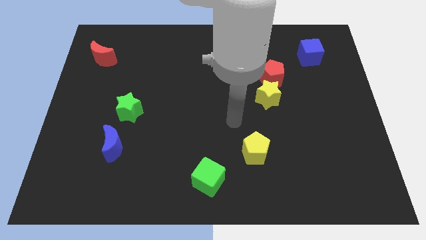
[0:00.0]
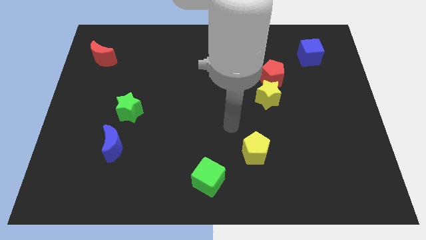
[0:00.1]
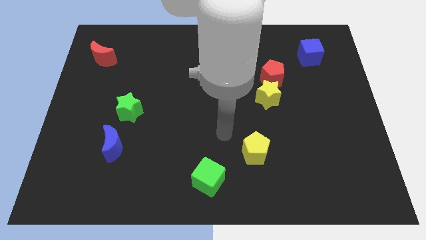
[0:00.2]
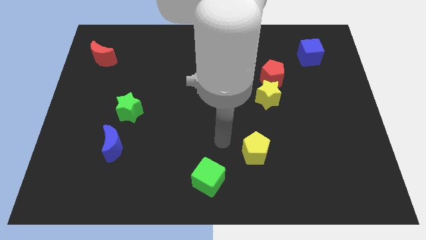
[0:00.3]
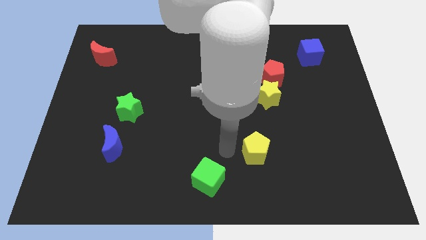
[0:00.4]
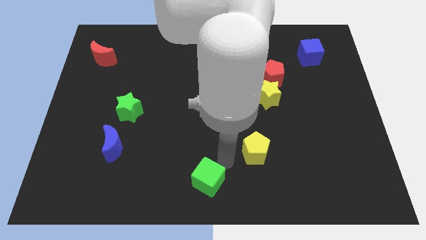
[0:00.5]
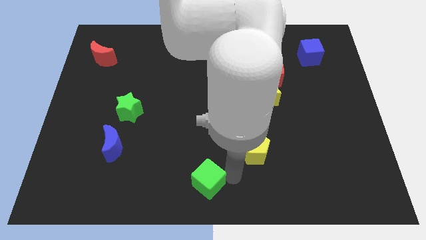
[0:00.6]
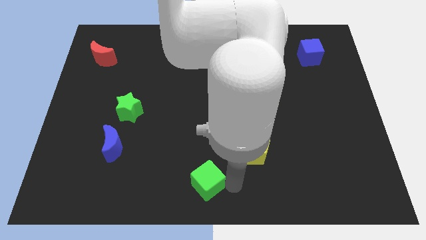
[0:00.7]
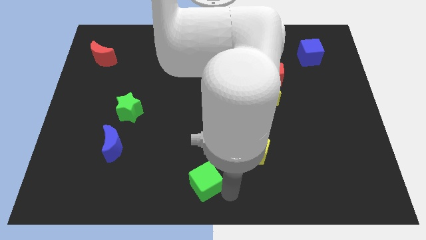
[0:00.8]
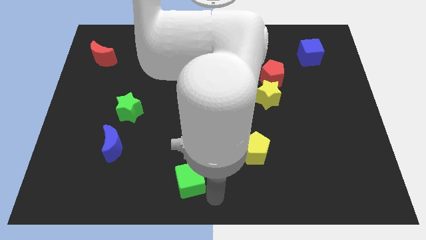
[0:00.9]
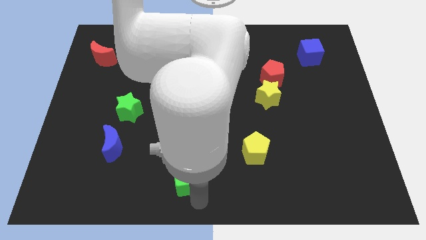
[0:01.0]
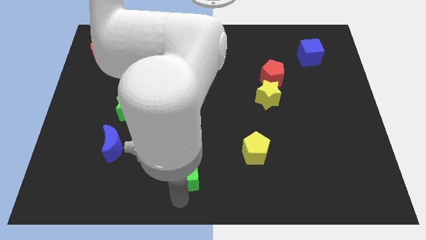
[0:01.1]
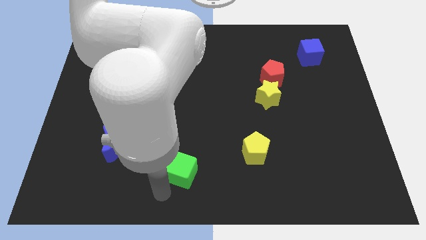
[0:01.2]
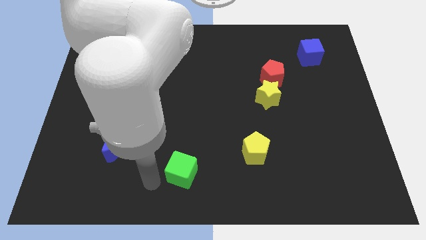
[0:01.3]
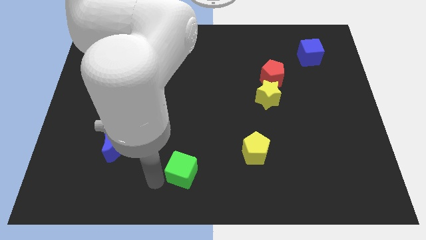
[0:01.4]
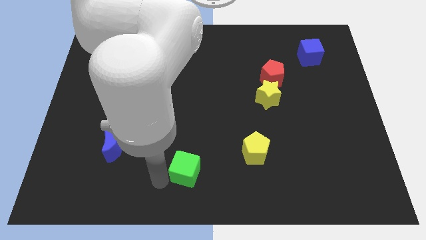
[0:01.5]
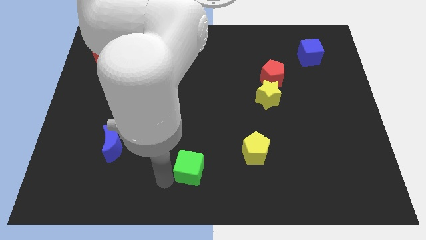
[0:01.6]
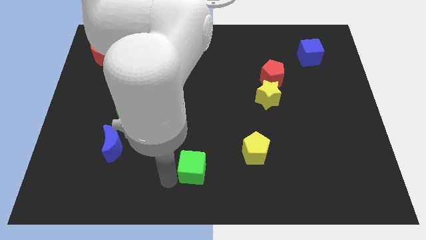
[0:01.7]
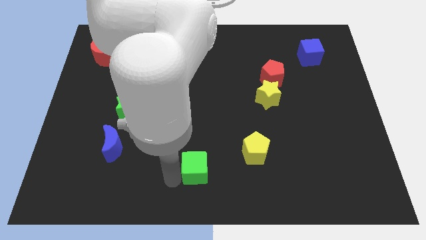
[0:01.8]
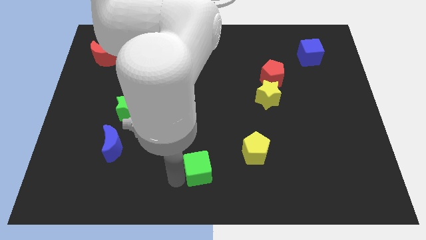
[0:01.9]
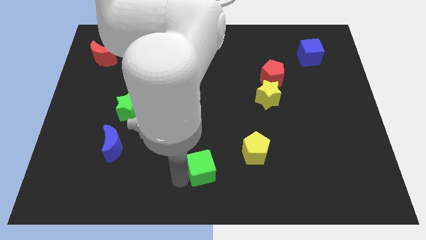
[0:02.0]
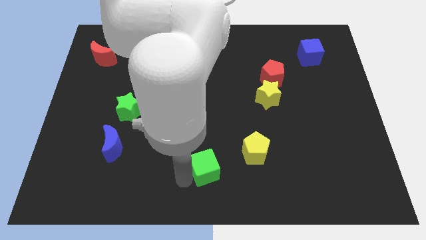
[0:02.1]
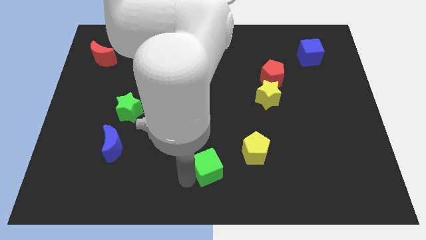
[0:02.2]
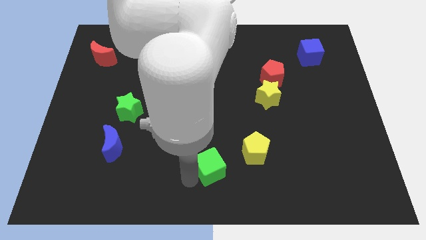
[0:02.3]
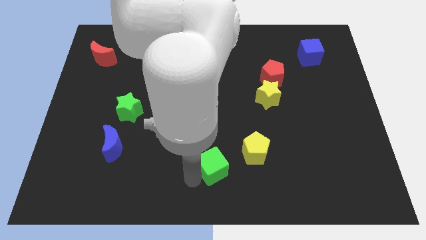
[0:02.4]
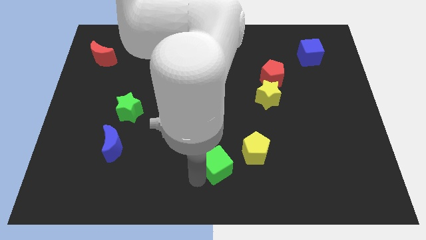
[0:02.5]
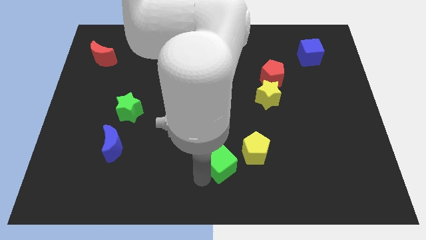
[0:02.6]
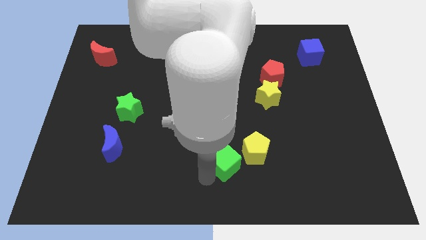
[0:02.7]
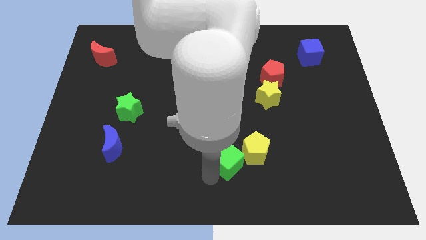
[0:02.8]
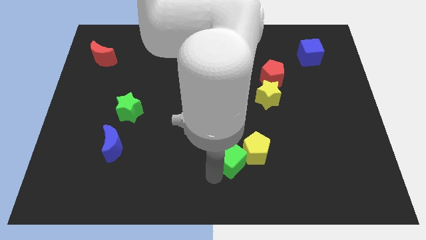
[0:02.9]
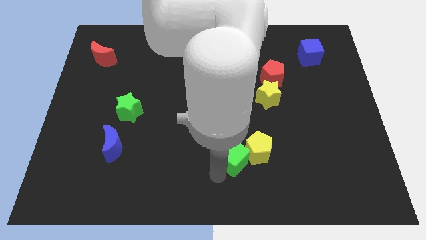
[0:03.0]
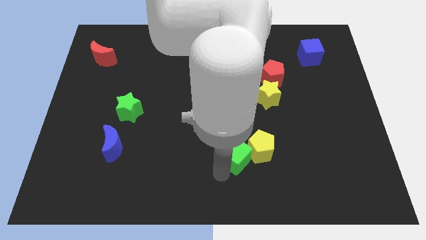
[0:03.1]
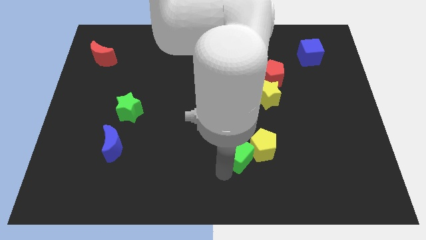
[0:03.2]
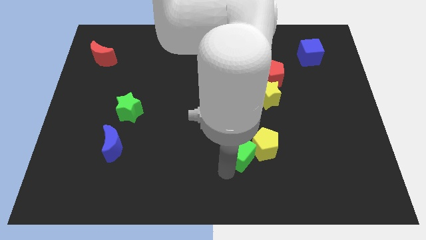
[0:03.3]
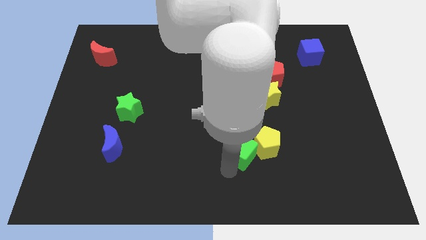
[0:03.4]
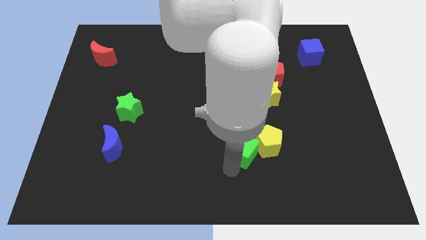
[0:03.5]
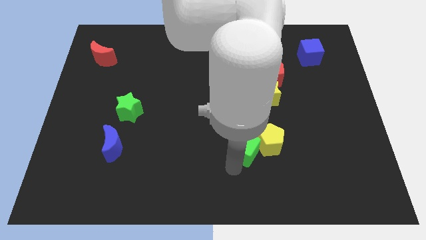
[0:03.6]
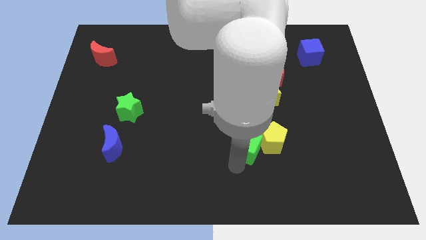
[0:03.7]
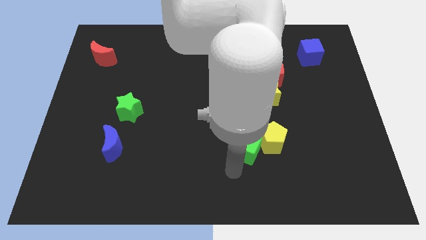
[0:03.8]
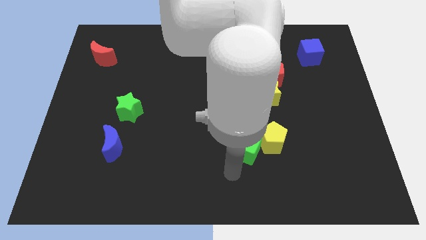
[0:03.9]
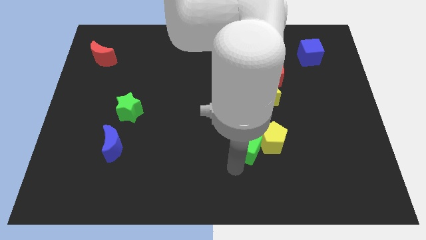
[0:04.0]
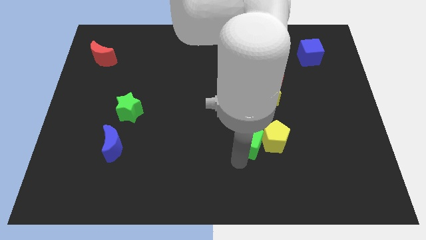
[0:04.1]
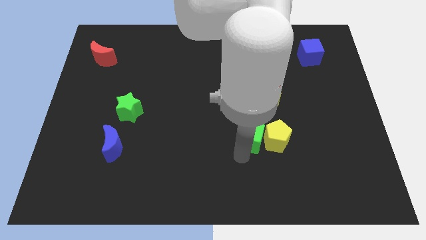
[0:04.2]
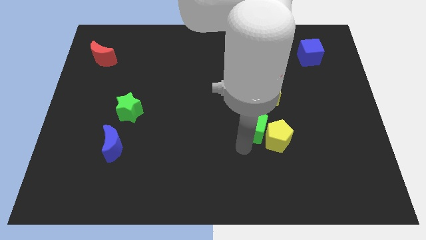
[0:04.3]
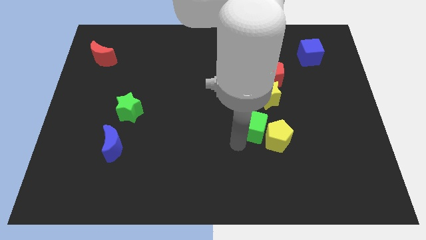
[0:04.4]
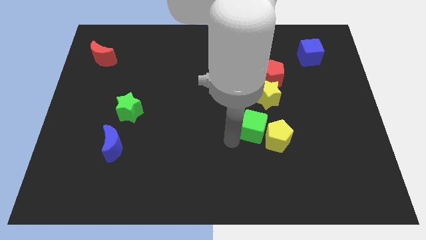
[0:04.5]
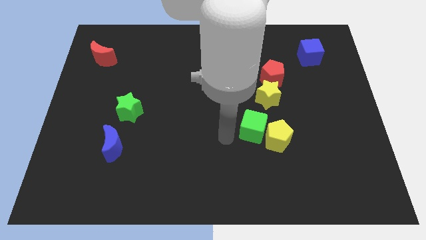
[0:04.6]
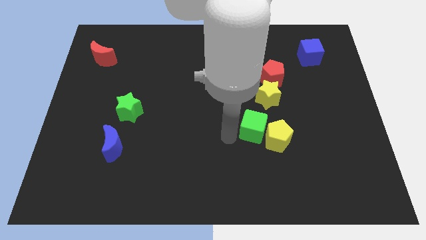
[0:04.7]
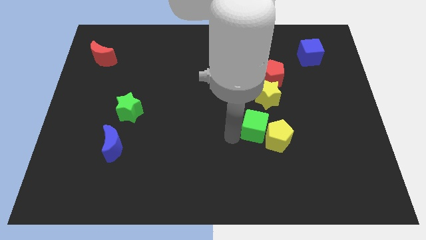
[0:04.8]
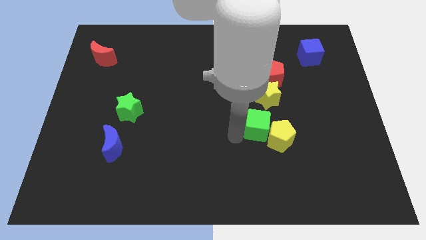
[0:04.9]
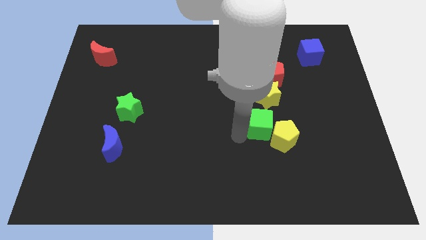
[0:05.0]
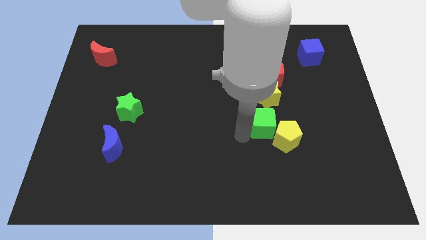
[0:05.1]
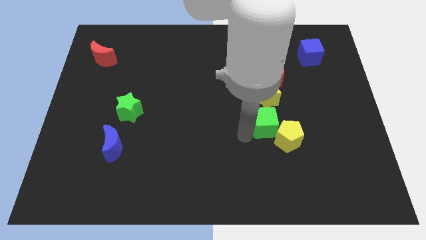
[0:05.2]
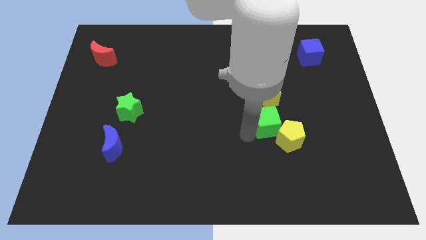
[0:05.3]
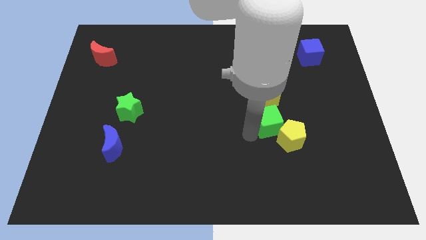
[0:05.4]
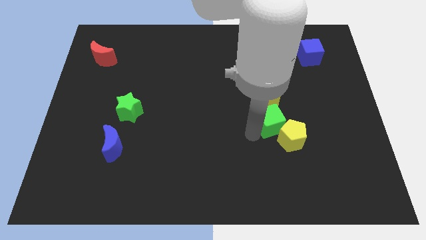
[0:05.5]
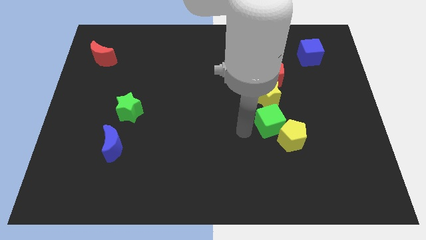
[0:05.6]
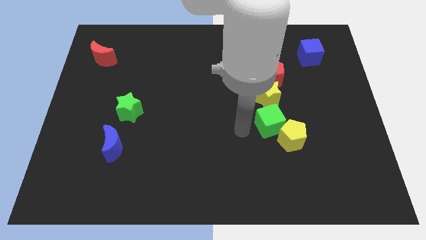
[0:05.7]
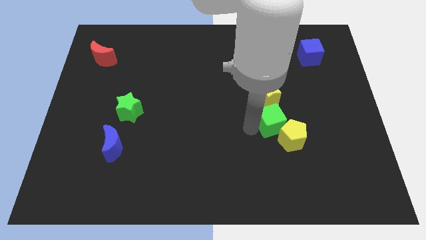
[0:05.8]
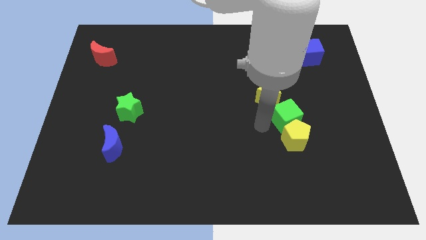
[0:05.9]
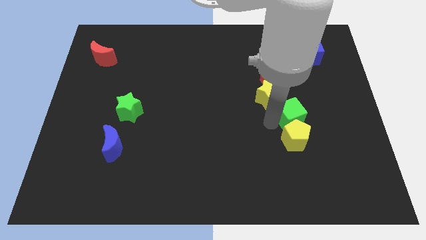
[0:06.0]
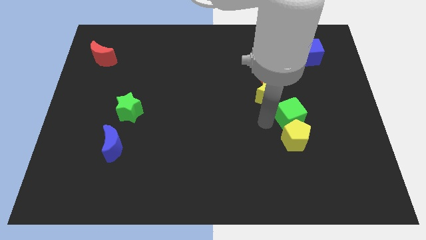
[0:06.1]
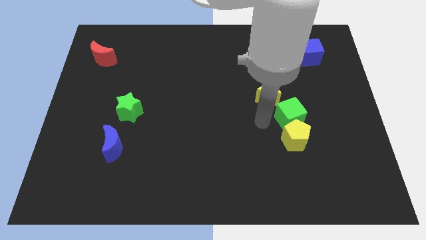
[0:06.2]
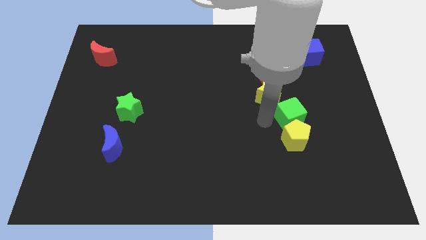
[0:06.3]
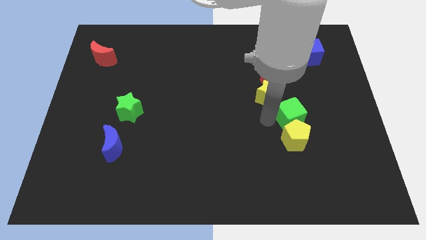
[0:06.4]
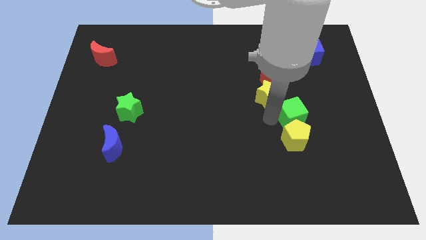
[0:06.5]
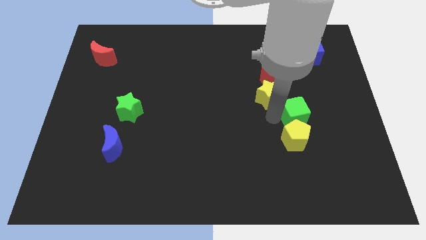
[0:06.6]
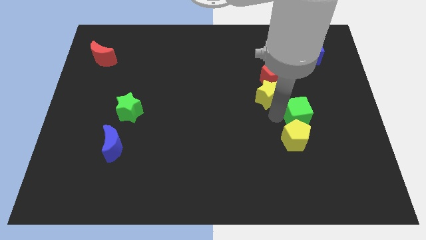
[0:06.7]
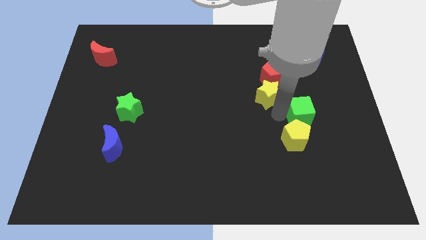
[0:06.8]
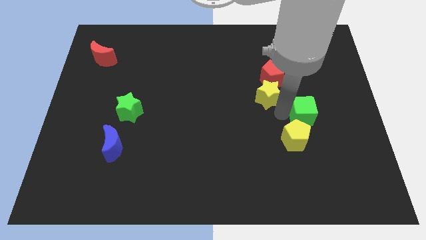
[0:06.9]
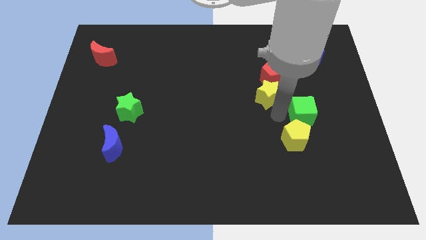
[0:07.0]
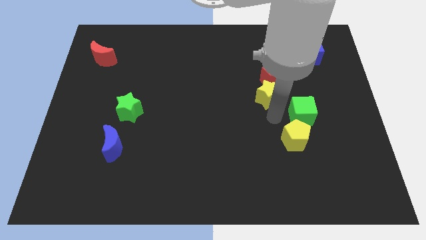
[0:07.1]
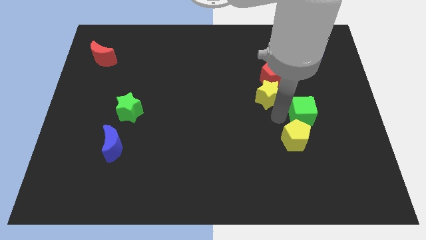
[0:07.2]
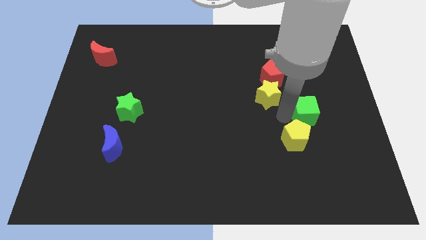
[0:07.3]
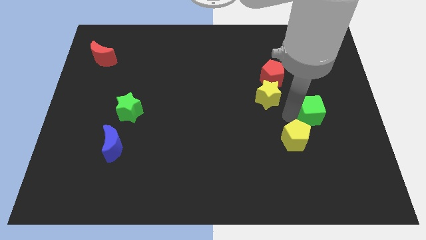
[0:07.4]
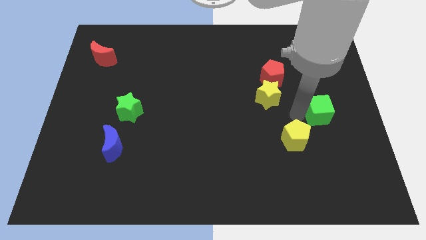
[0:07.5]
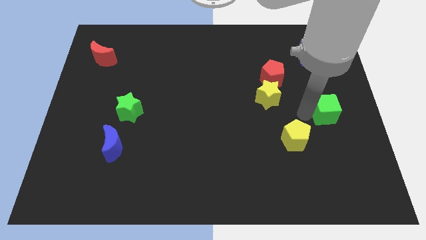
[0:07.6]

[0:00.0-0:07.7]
slide the green cube to the center right
